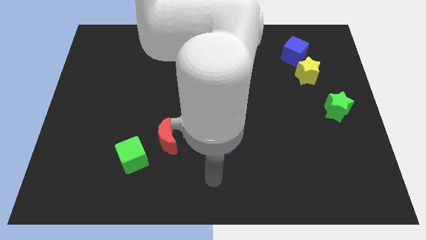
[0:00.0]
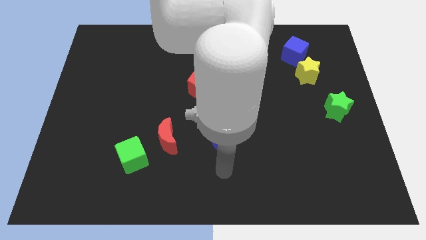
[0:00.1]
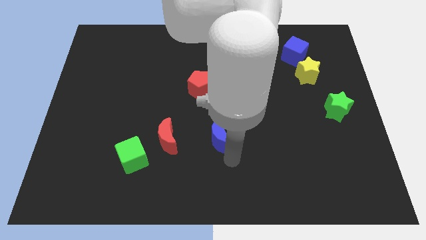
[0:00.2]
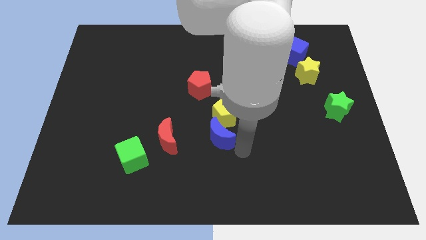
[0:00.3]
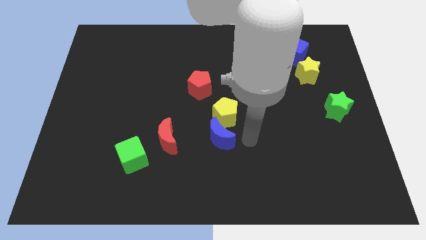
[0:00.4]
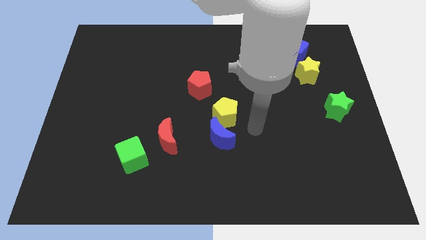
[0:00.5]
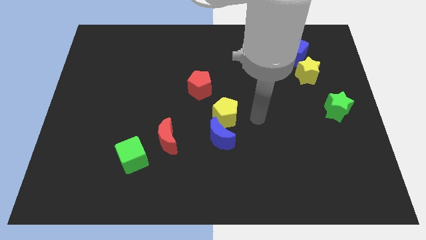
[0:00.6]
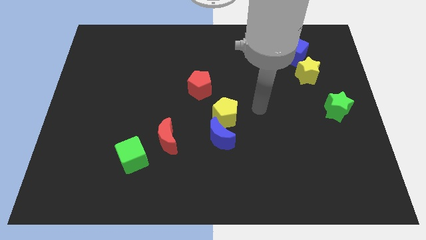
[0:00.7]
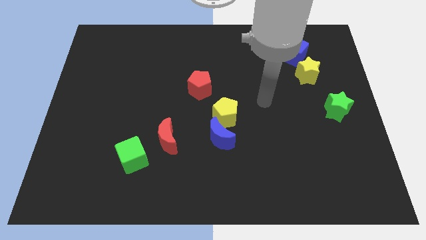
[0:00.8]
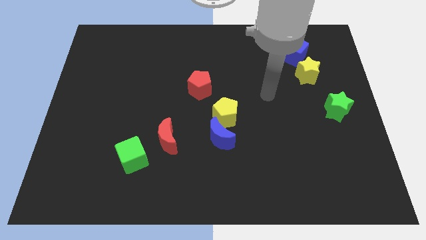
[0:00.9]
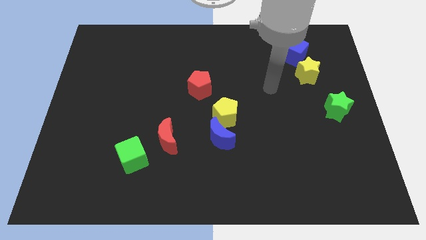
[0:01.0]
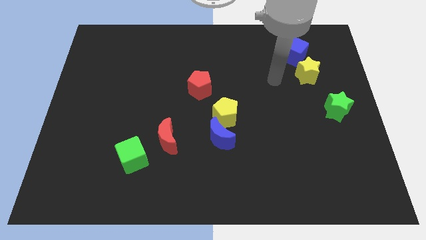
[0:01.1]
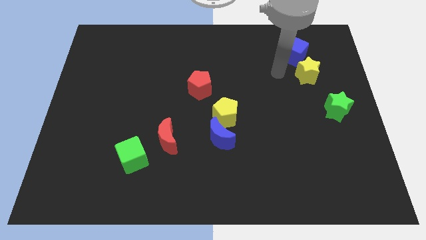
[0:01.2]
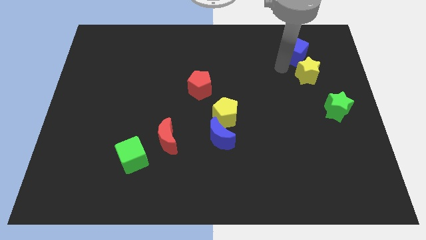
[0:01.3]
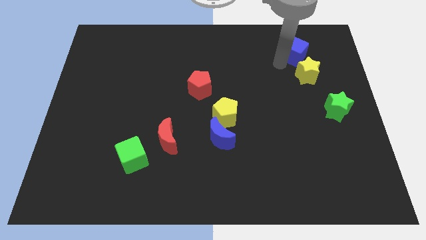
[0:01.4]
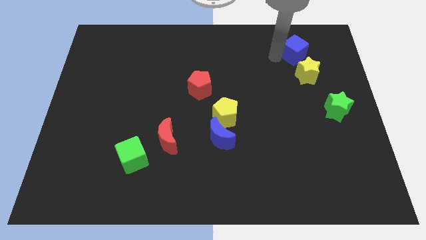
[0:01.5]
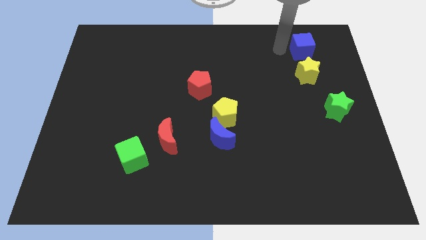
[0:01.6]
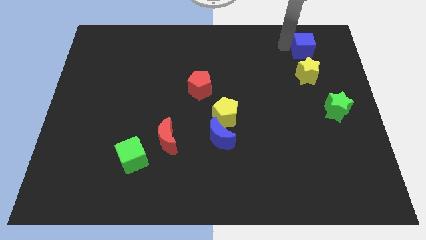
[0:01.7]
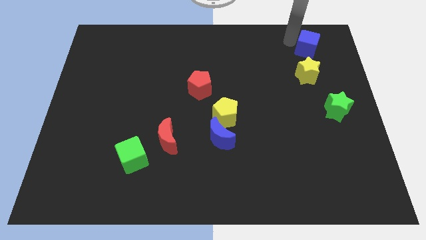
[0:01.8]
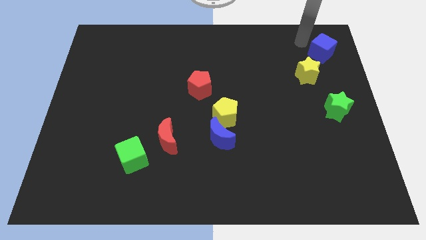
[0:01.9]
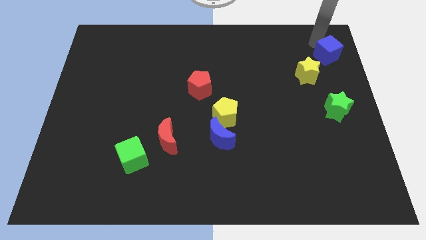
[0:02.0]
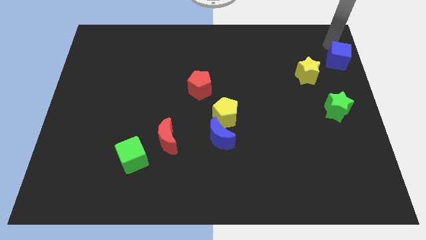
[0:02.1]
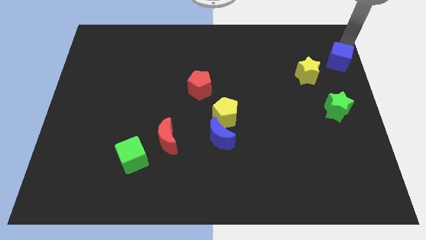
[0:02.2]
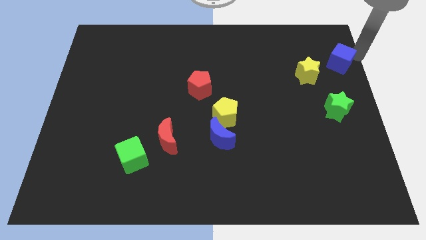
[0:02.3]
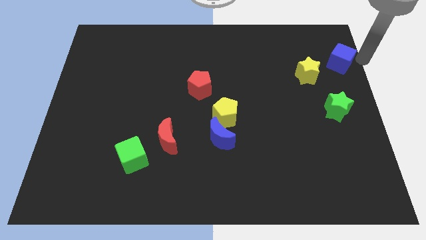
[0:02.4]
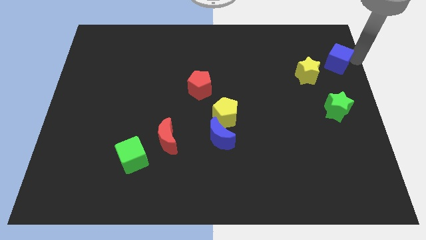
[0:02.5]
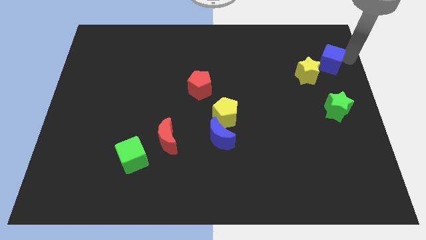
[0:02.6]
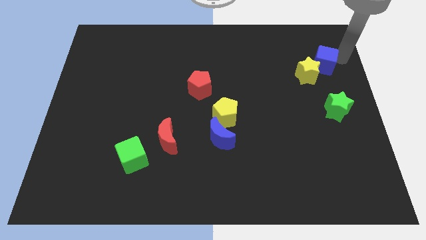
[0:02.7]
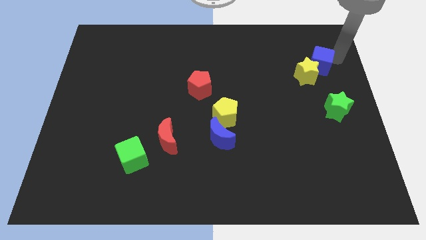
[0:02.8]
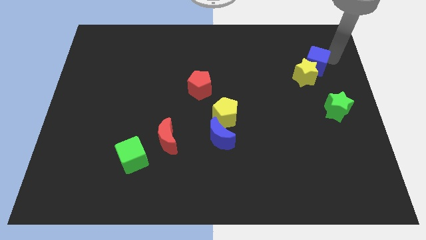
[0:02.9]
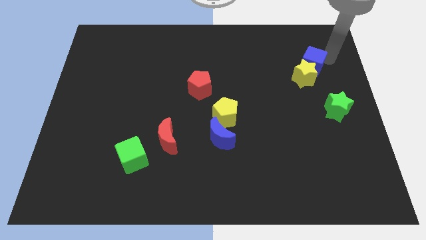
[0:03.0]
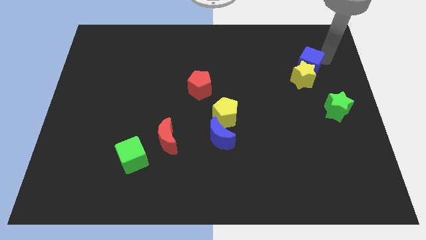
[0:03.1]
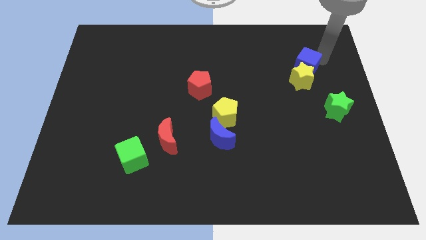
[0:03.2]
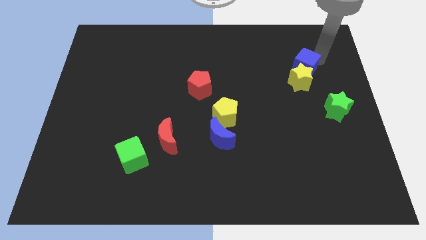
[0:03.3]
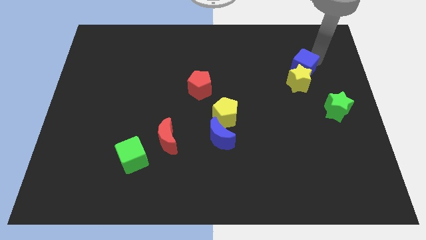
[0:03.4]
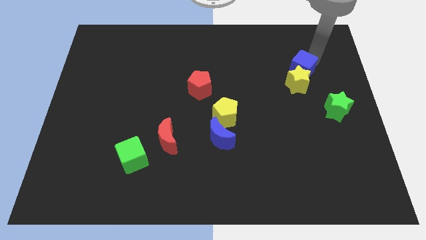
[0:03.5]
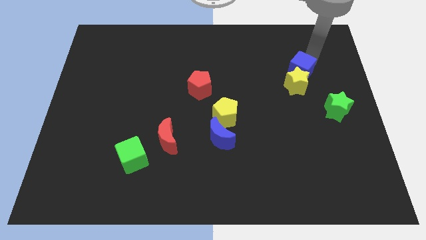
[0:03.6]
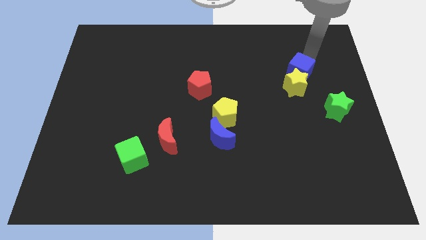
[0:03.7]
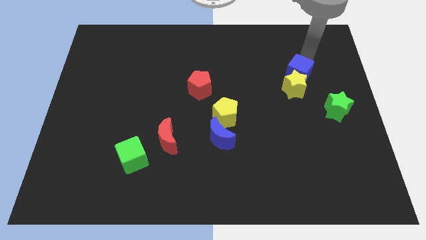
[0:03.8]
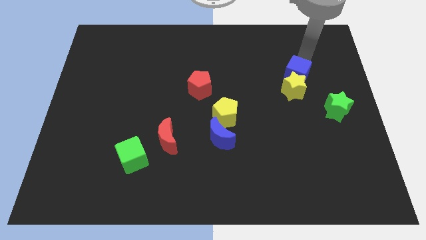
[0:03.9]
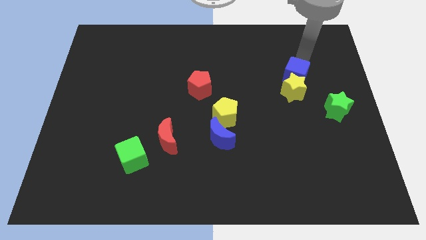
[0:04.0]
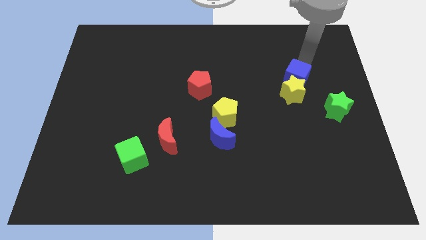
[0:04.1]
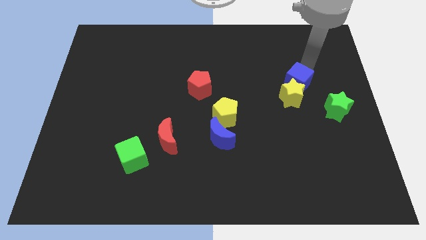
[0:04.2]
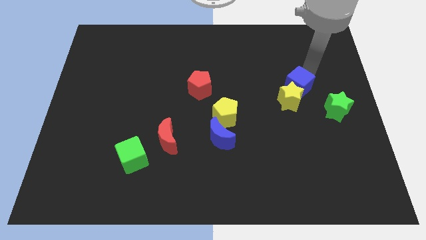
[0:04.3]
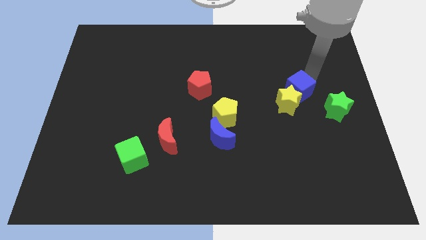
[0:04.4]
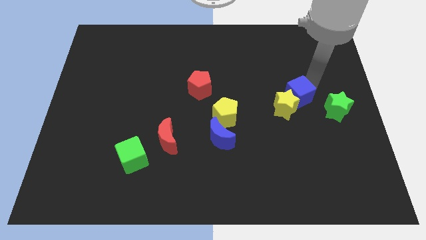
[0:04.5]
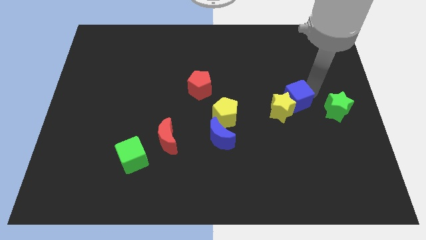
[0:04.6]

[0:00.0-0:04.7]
slightly slide the blue cube down and left diagonally

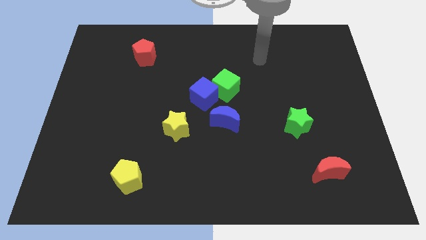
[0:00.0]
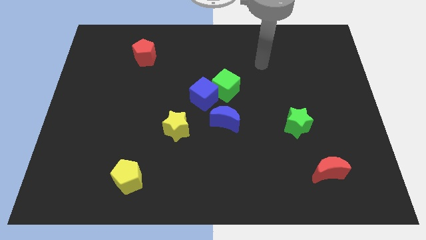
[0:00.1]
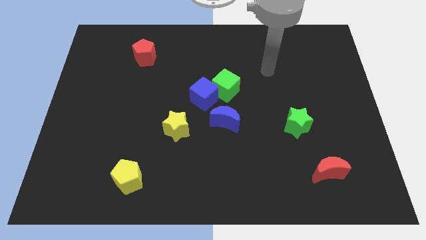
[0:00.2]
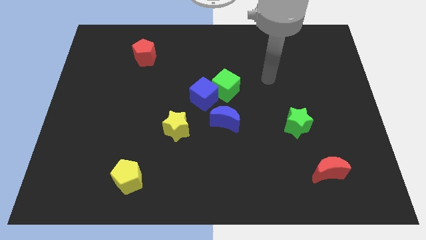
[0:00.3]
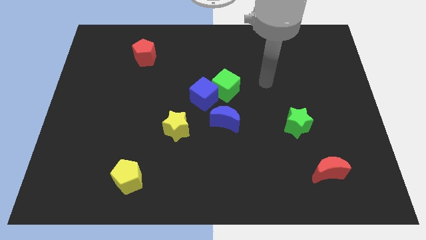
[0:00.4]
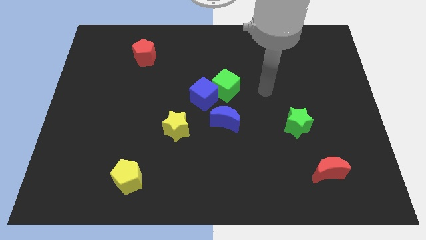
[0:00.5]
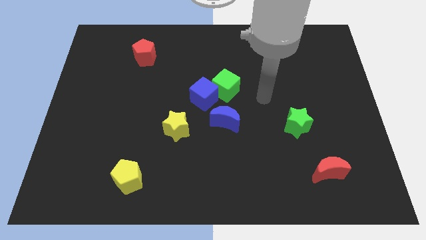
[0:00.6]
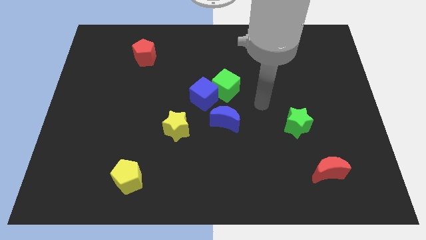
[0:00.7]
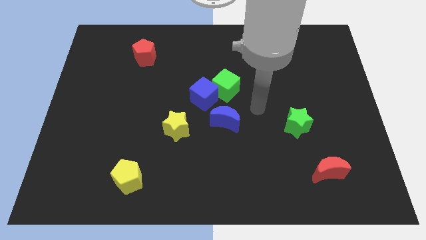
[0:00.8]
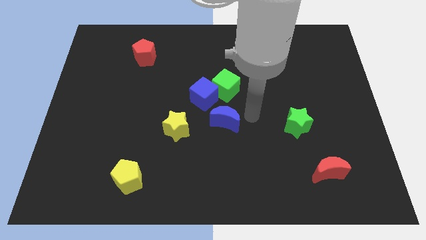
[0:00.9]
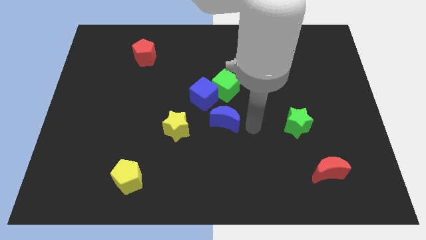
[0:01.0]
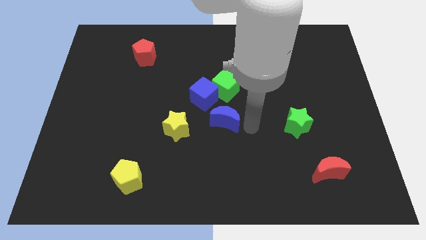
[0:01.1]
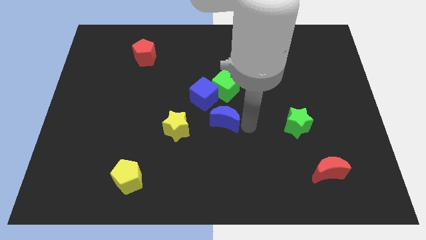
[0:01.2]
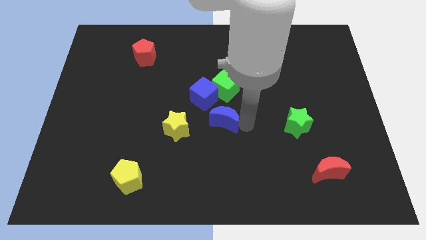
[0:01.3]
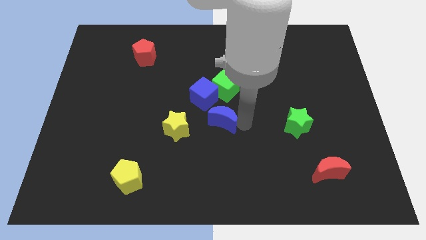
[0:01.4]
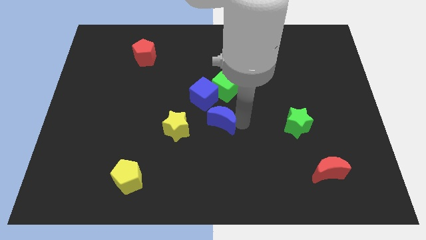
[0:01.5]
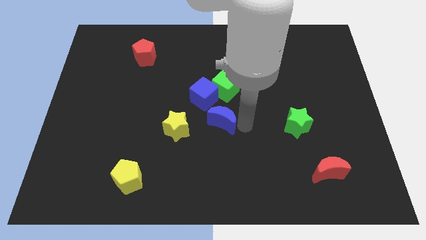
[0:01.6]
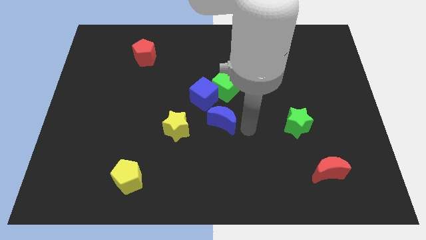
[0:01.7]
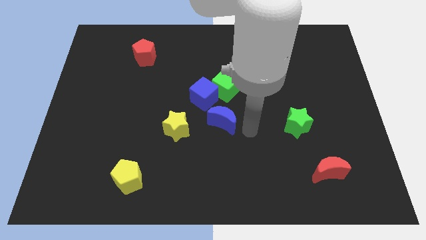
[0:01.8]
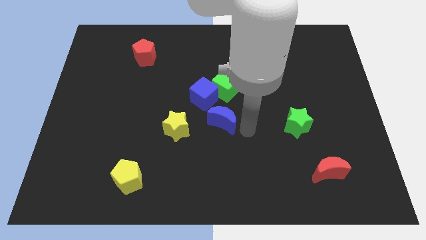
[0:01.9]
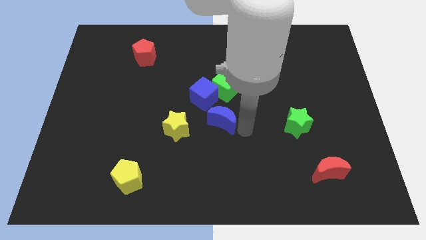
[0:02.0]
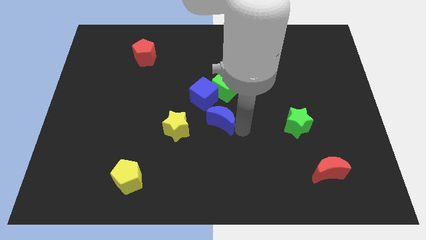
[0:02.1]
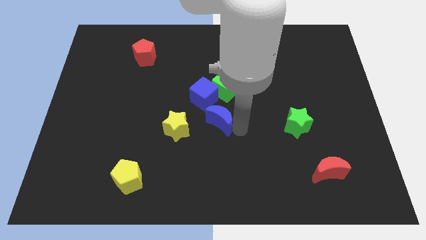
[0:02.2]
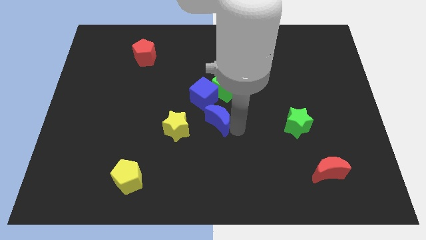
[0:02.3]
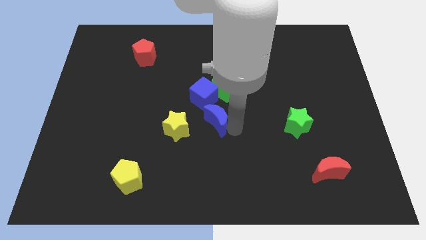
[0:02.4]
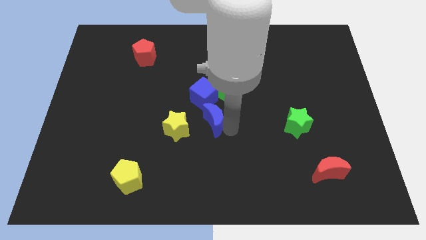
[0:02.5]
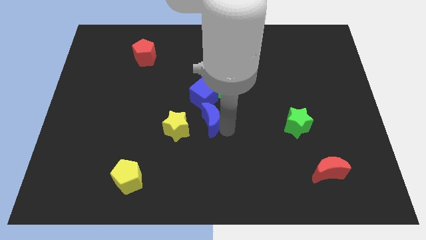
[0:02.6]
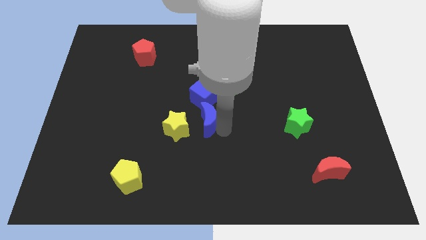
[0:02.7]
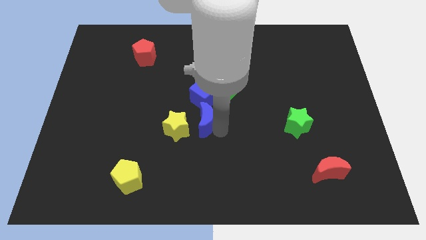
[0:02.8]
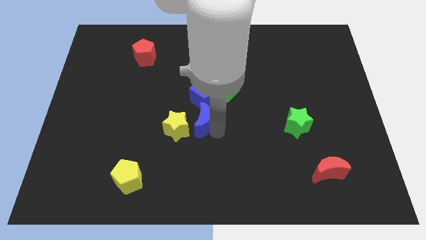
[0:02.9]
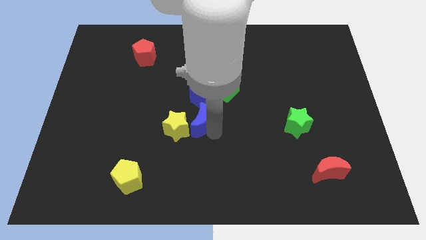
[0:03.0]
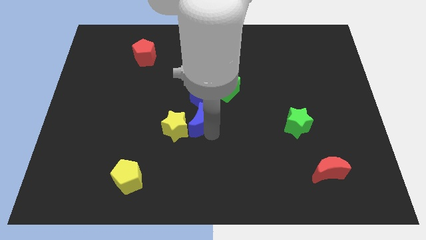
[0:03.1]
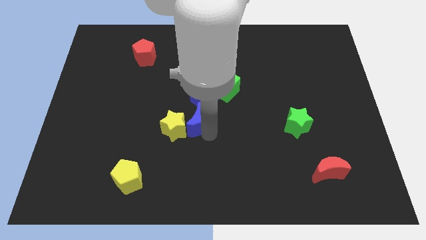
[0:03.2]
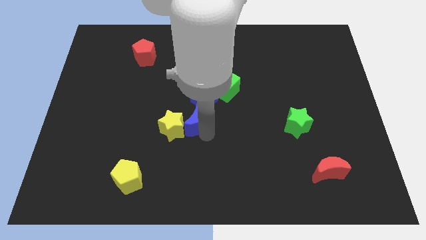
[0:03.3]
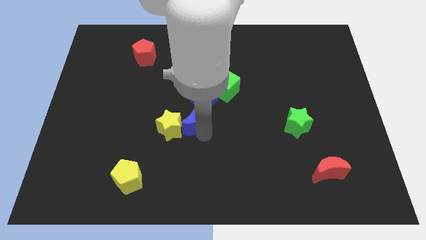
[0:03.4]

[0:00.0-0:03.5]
slightly slide the blue moon left
